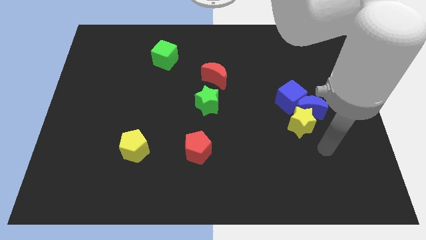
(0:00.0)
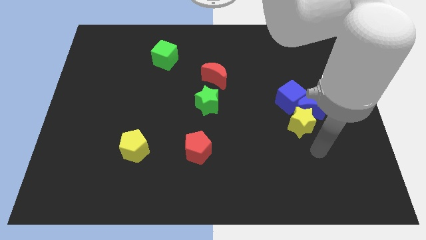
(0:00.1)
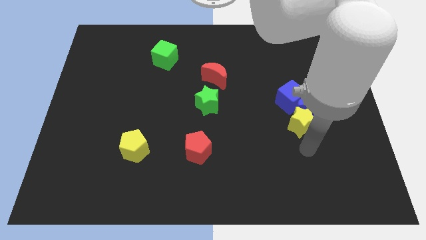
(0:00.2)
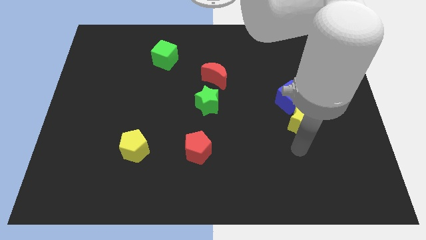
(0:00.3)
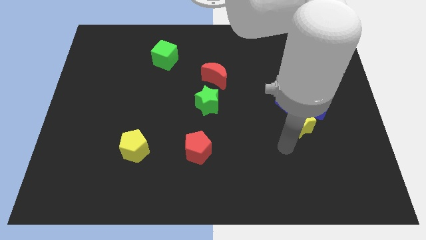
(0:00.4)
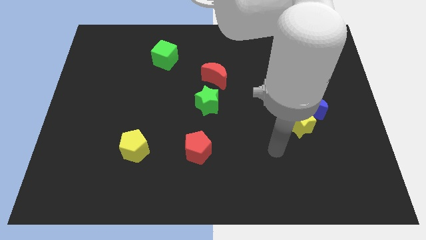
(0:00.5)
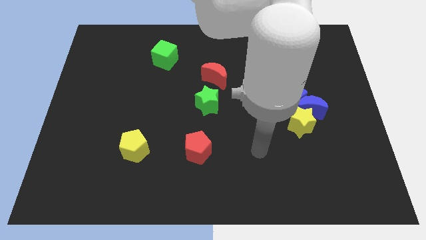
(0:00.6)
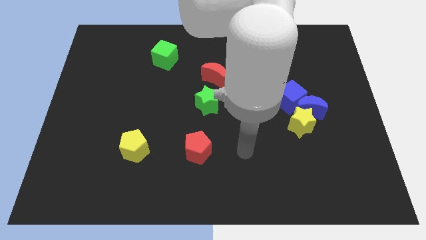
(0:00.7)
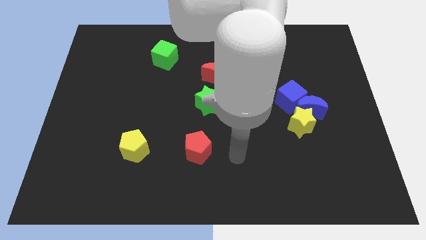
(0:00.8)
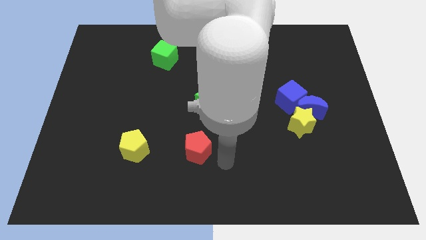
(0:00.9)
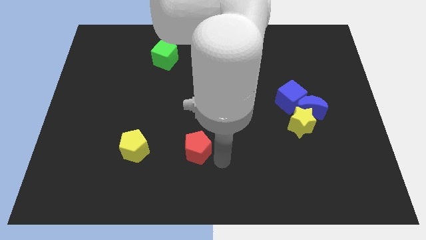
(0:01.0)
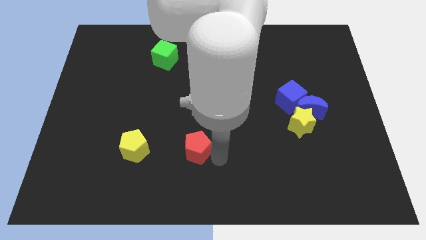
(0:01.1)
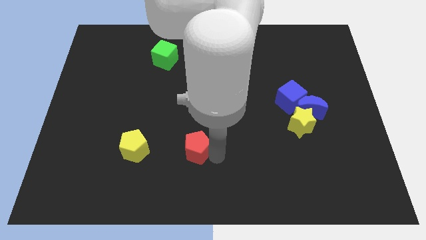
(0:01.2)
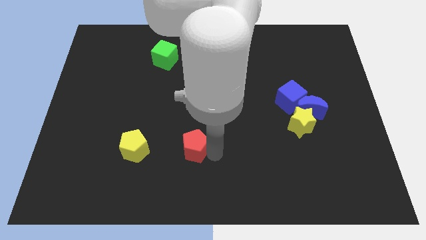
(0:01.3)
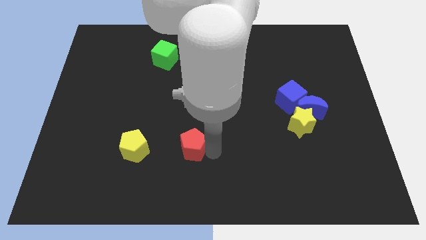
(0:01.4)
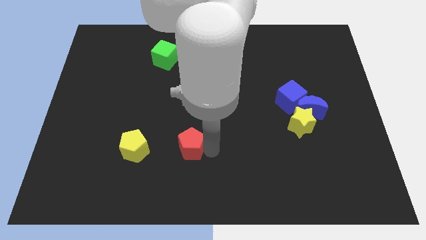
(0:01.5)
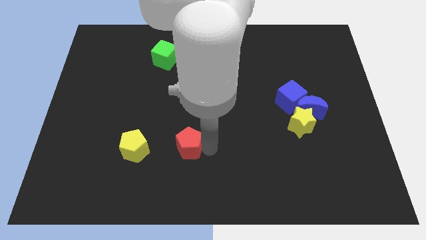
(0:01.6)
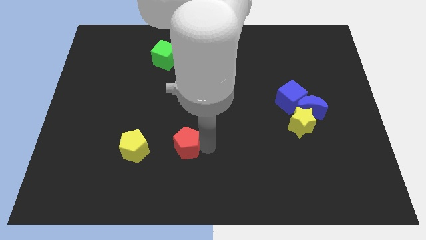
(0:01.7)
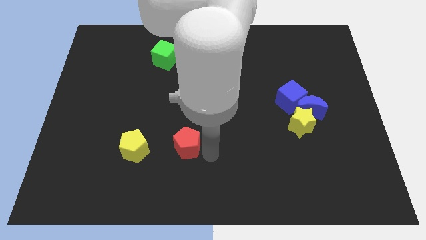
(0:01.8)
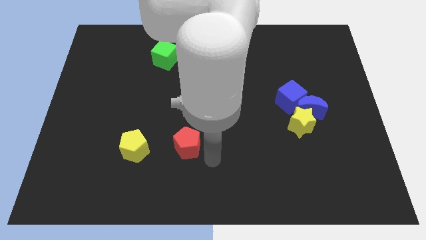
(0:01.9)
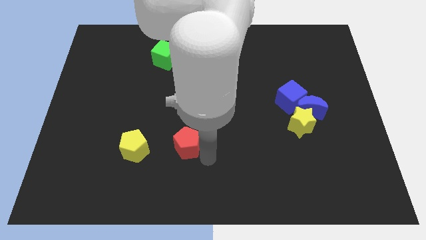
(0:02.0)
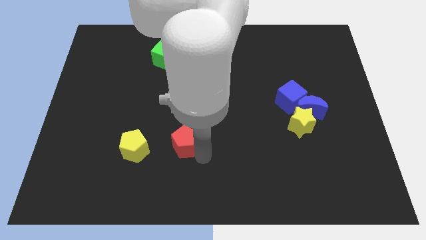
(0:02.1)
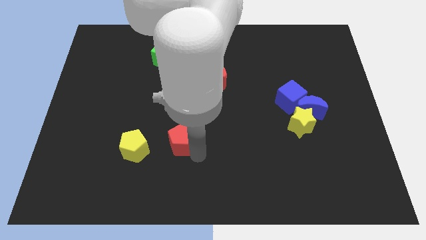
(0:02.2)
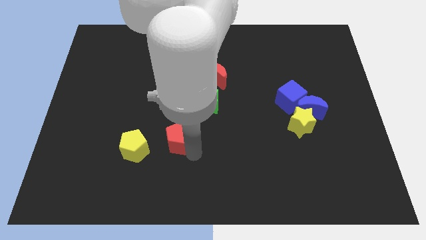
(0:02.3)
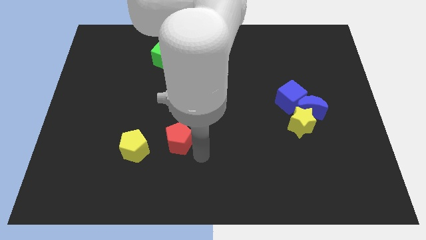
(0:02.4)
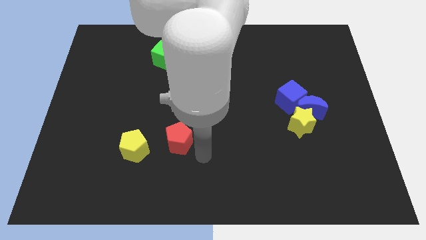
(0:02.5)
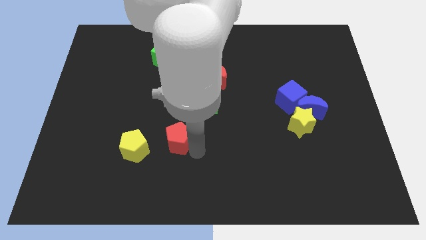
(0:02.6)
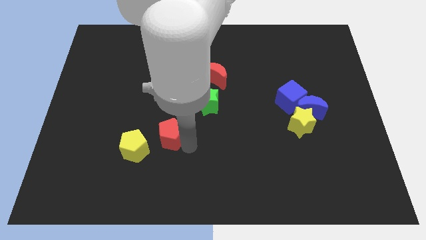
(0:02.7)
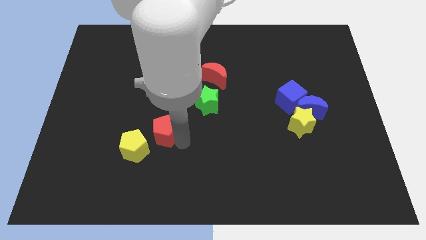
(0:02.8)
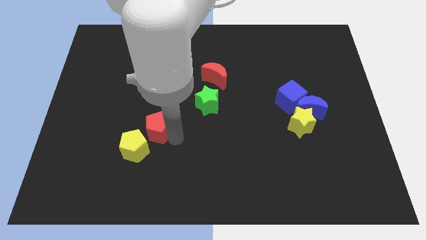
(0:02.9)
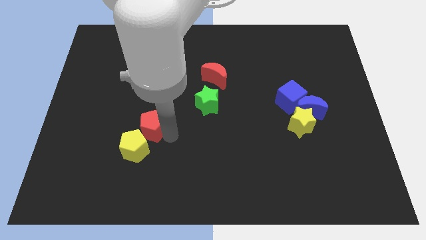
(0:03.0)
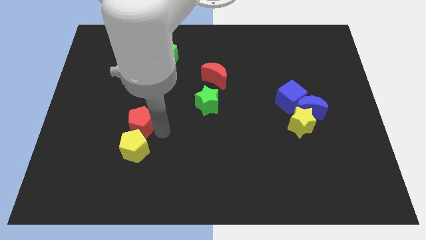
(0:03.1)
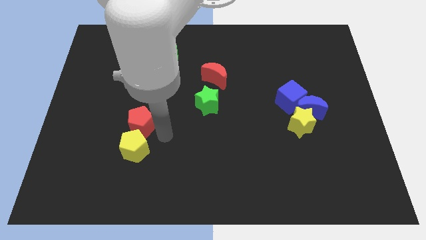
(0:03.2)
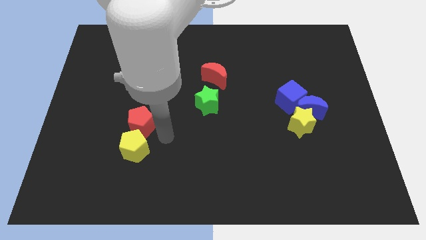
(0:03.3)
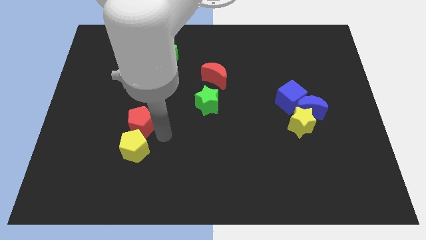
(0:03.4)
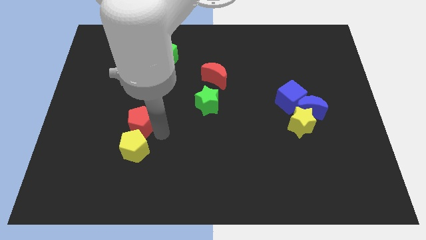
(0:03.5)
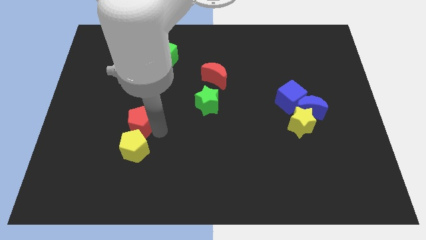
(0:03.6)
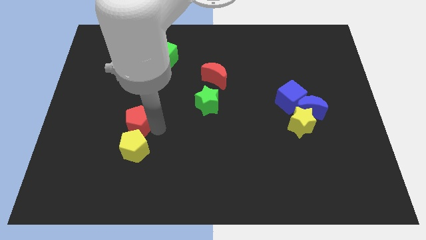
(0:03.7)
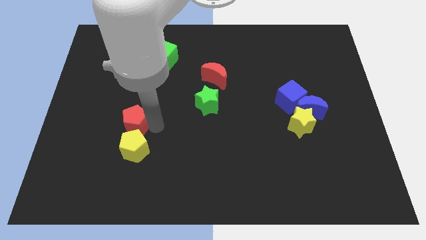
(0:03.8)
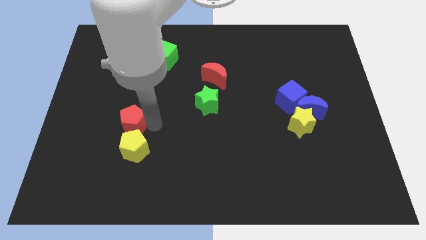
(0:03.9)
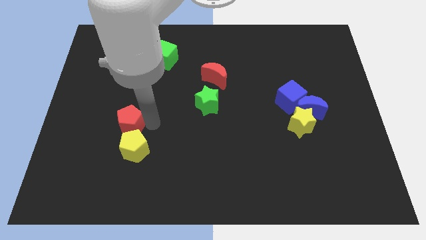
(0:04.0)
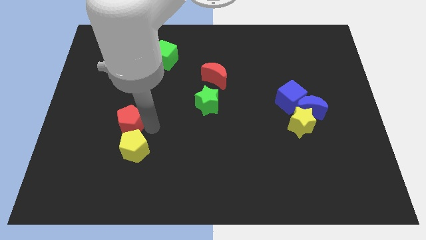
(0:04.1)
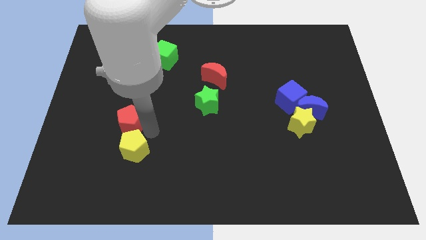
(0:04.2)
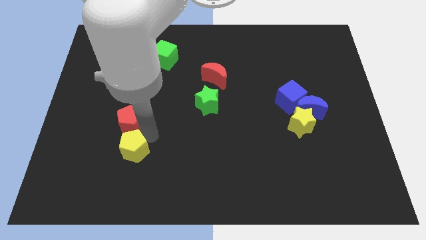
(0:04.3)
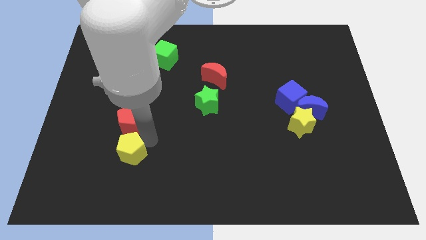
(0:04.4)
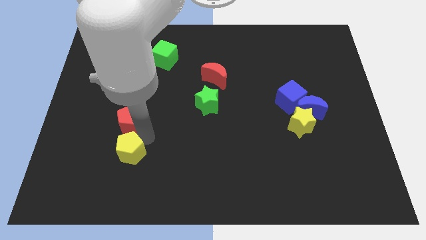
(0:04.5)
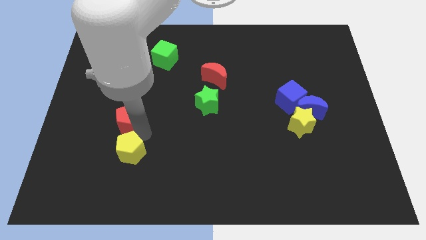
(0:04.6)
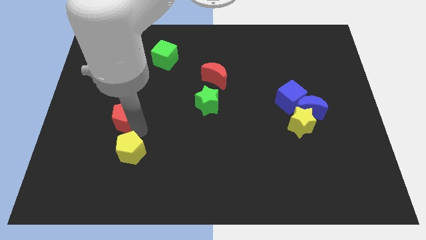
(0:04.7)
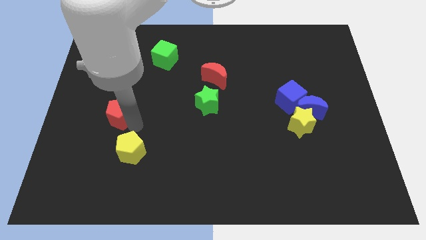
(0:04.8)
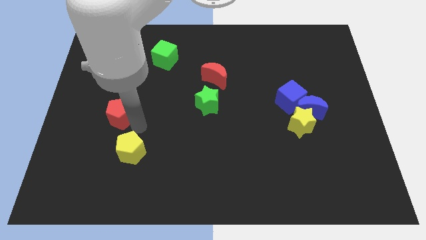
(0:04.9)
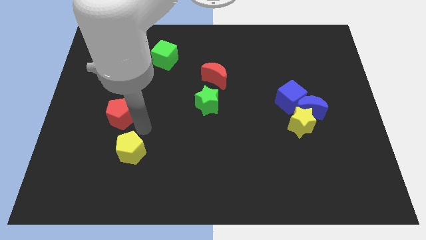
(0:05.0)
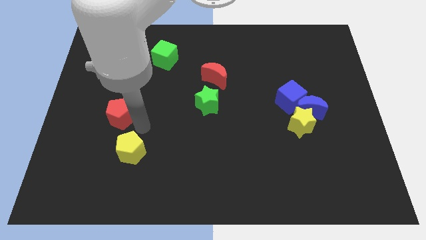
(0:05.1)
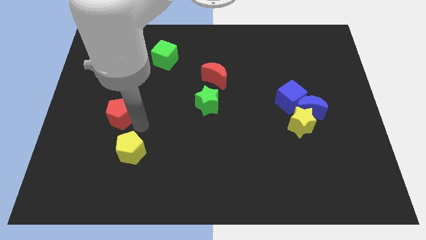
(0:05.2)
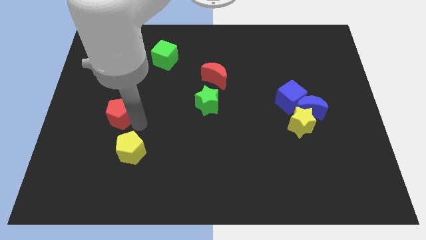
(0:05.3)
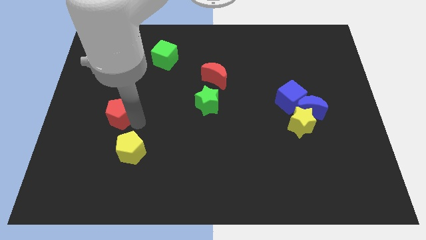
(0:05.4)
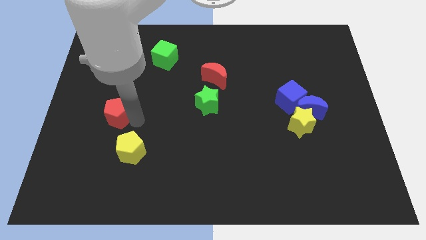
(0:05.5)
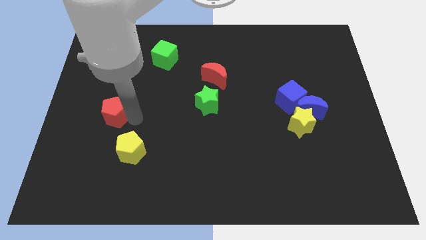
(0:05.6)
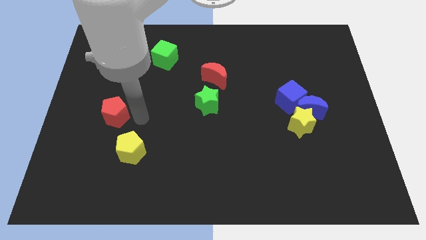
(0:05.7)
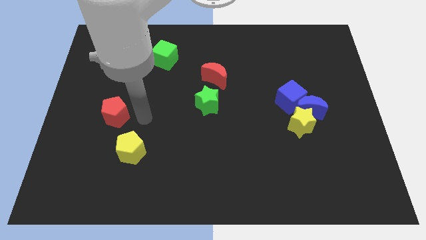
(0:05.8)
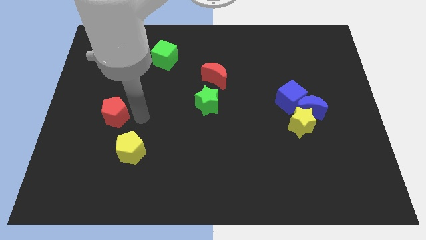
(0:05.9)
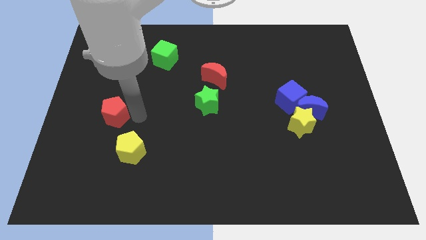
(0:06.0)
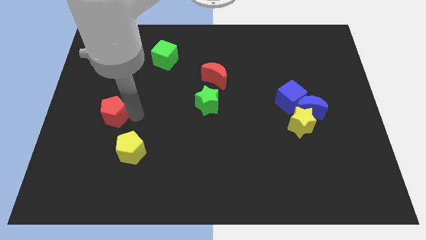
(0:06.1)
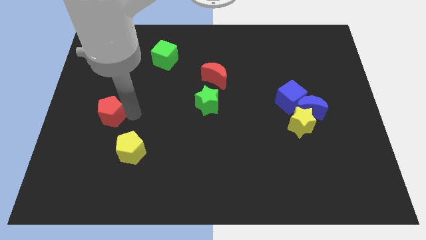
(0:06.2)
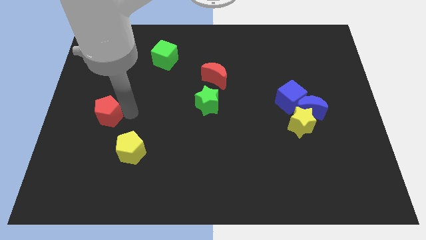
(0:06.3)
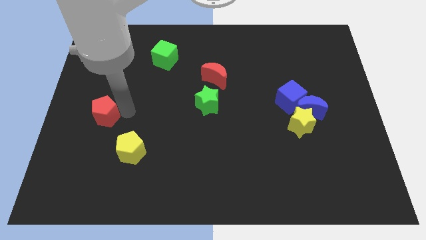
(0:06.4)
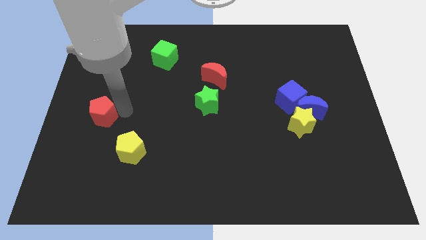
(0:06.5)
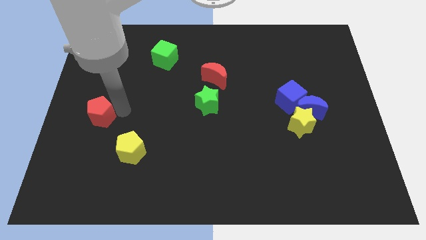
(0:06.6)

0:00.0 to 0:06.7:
move the red pentagon to the left side of the board
